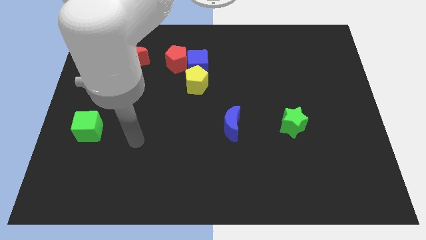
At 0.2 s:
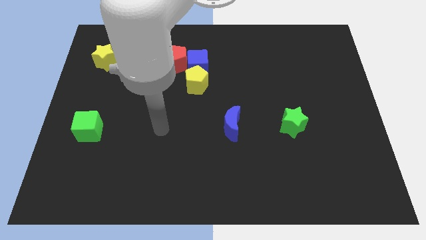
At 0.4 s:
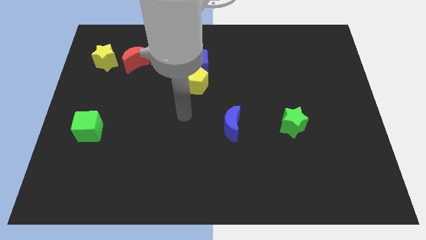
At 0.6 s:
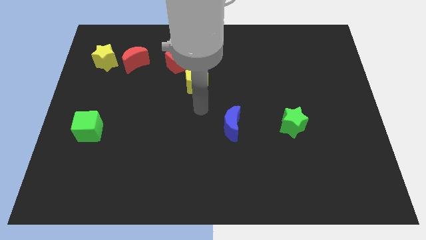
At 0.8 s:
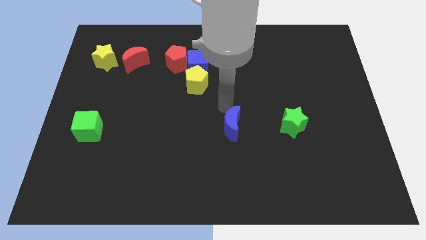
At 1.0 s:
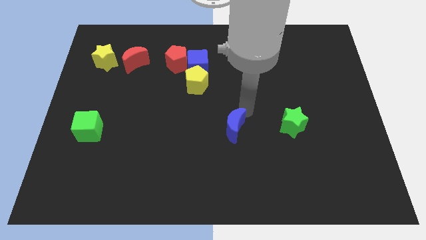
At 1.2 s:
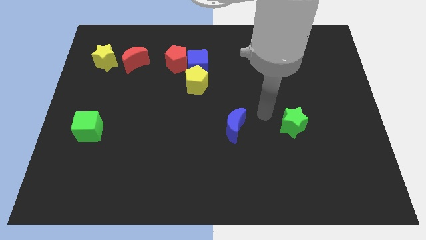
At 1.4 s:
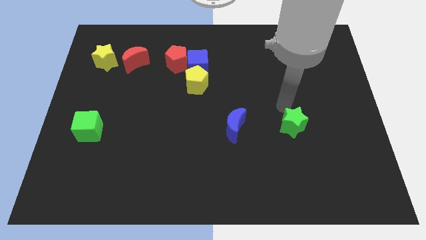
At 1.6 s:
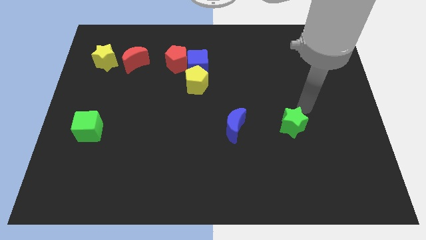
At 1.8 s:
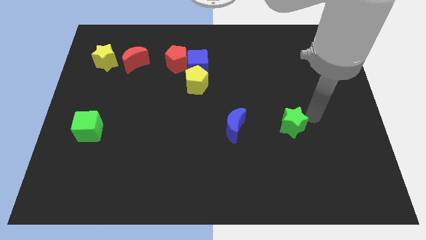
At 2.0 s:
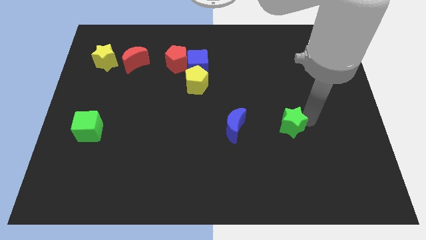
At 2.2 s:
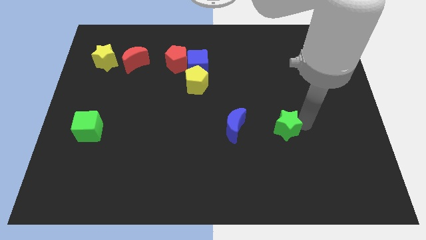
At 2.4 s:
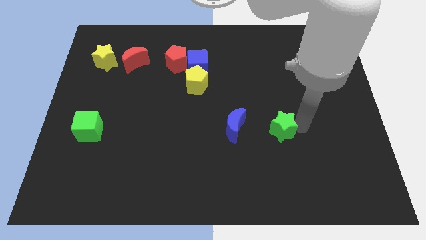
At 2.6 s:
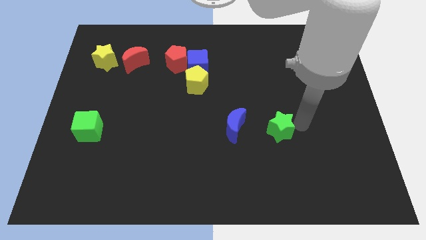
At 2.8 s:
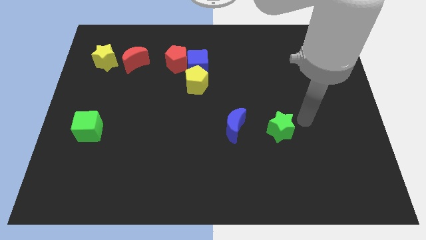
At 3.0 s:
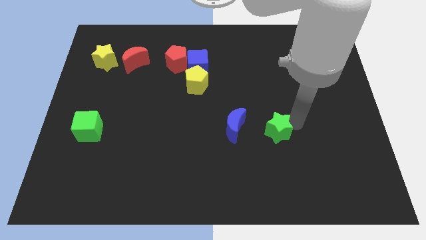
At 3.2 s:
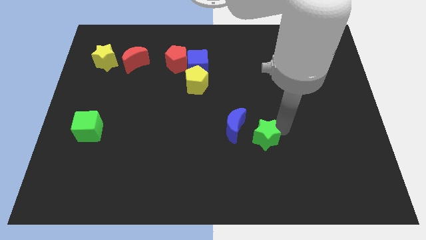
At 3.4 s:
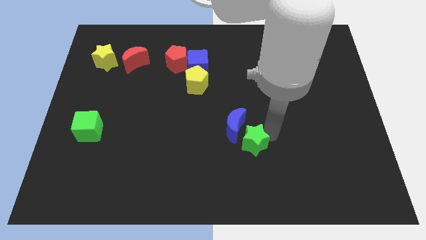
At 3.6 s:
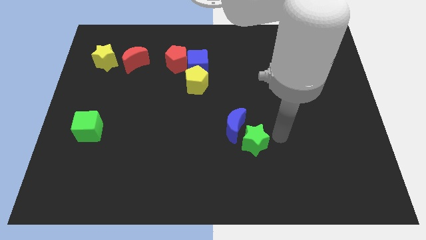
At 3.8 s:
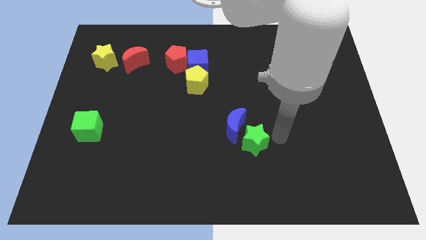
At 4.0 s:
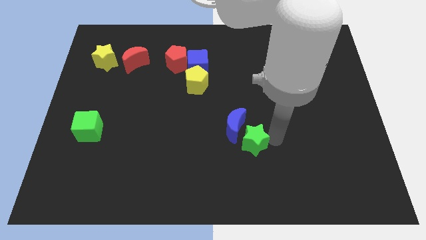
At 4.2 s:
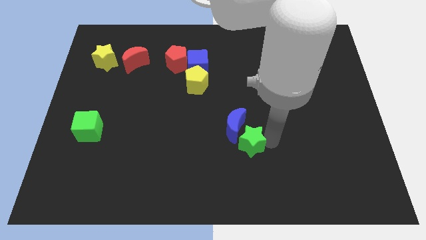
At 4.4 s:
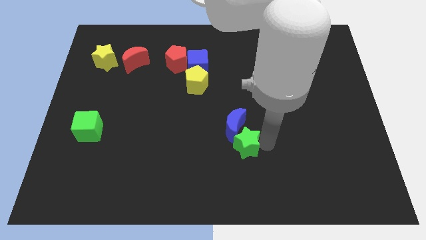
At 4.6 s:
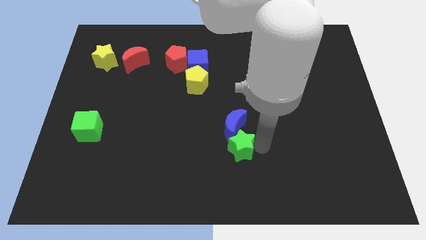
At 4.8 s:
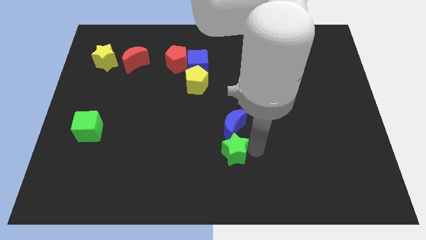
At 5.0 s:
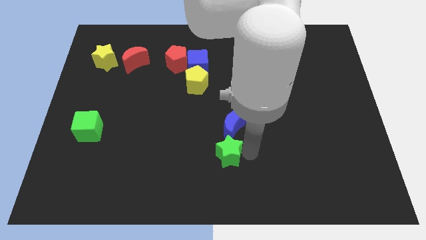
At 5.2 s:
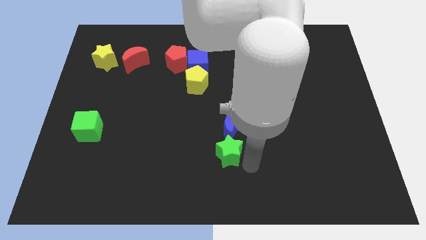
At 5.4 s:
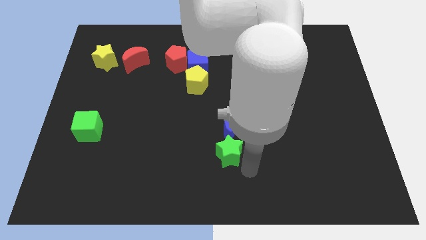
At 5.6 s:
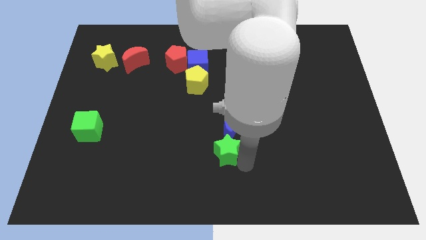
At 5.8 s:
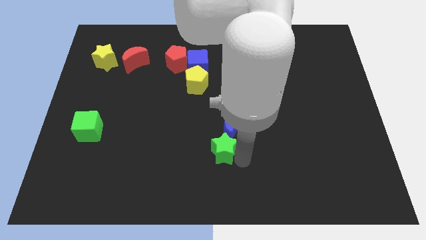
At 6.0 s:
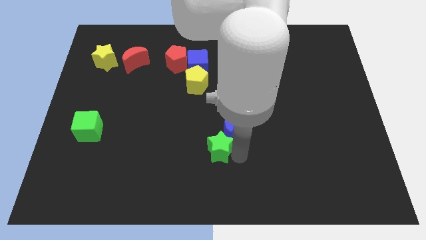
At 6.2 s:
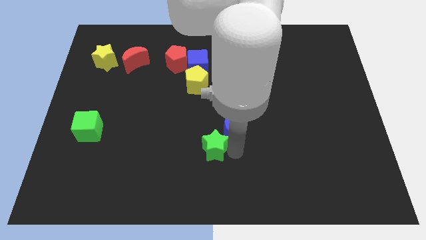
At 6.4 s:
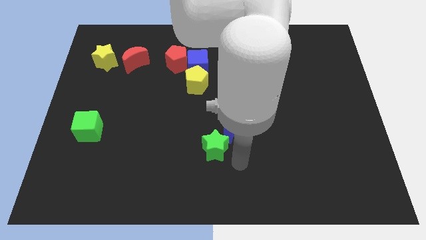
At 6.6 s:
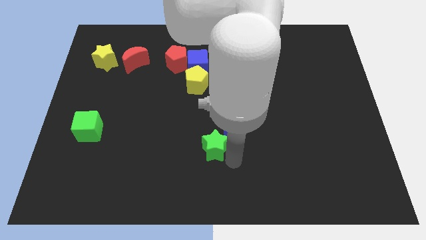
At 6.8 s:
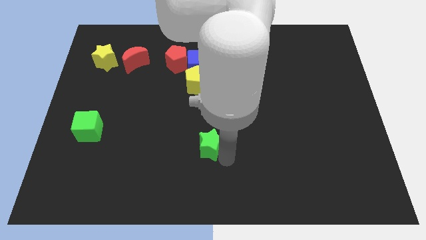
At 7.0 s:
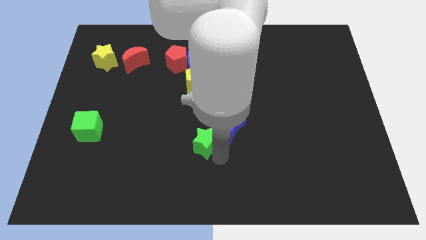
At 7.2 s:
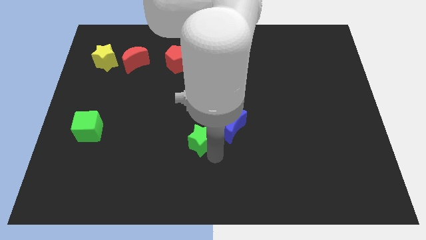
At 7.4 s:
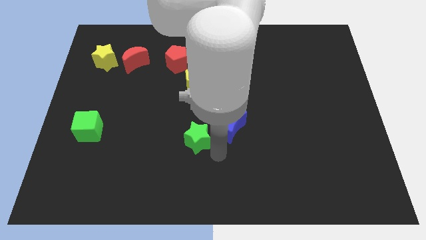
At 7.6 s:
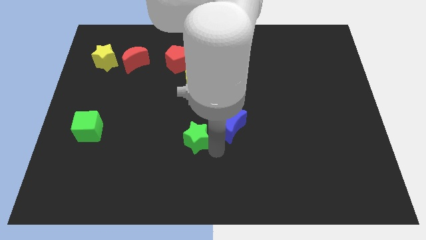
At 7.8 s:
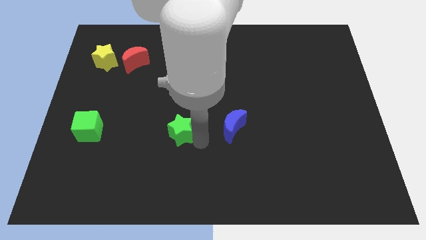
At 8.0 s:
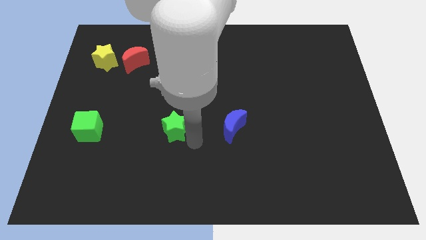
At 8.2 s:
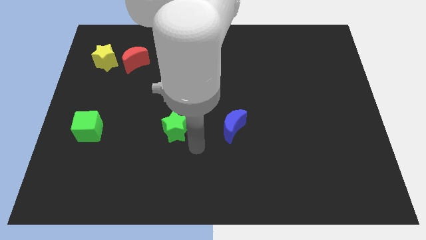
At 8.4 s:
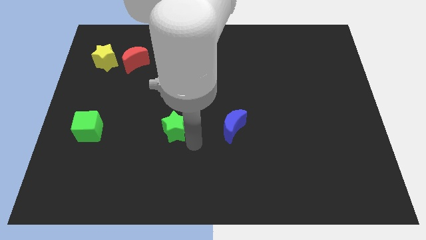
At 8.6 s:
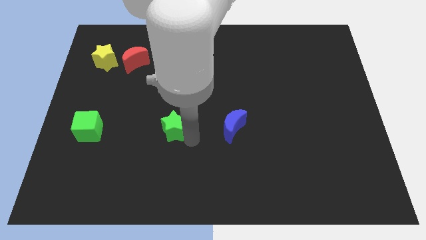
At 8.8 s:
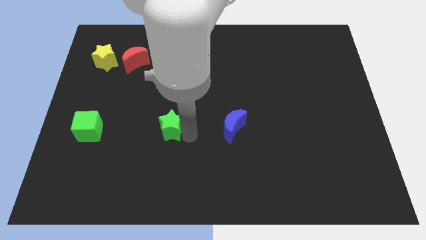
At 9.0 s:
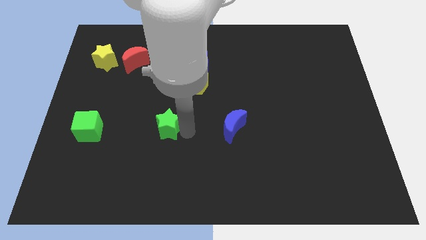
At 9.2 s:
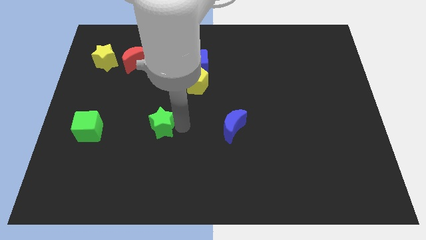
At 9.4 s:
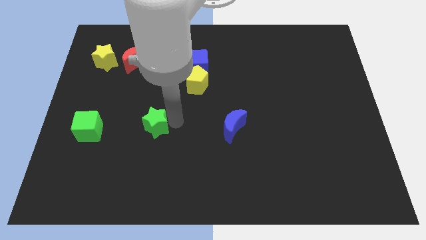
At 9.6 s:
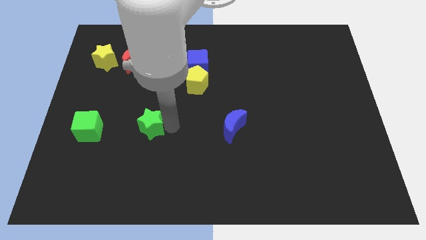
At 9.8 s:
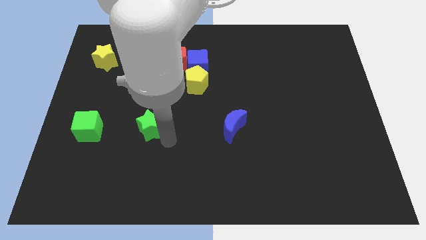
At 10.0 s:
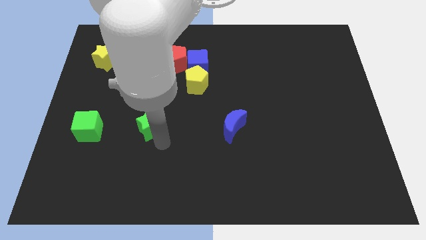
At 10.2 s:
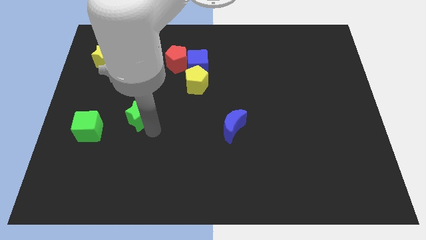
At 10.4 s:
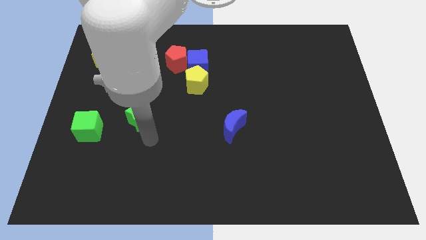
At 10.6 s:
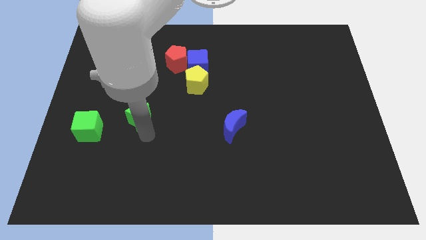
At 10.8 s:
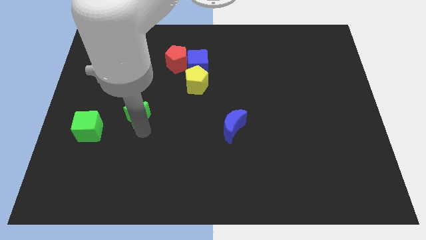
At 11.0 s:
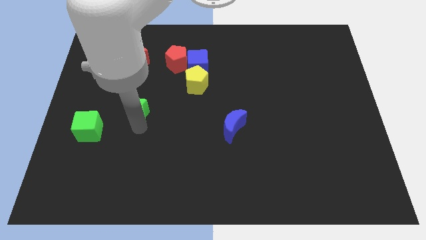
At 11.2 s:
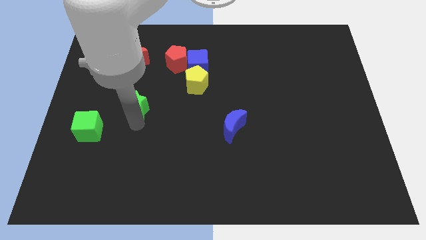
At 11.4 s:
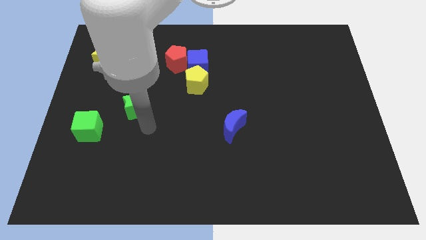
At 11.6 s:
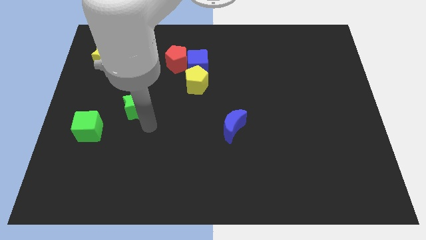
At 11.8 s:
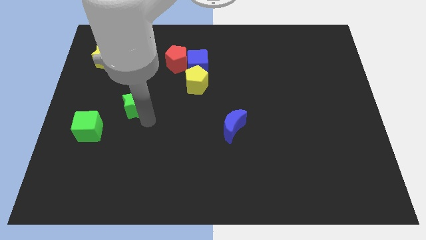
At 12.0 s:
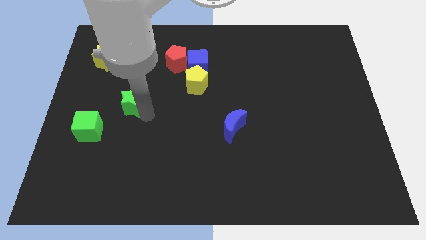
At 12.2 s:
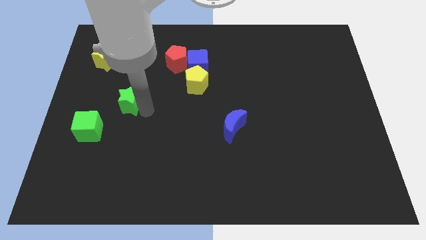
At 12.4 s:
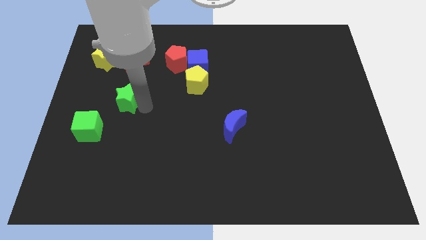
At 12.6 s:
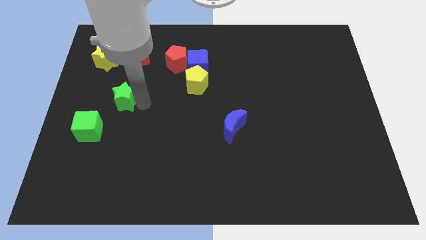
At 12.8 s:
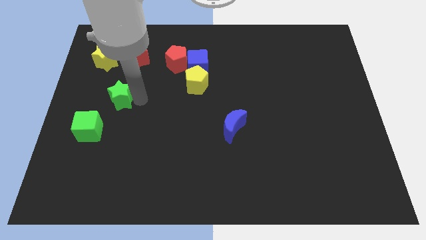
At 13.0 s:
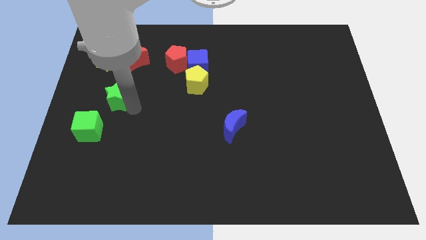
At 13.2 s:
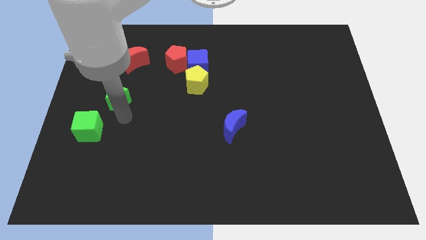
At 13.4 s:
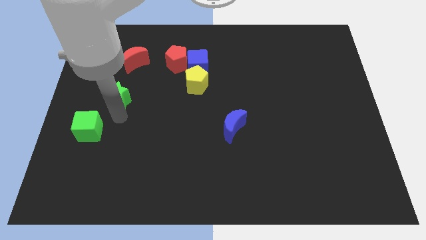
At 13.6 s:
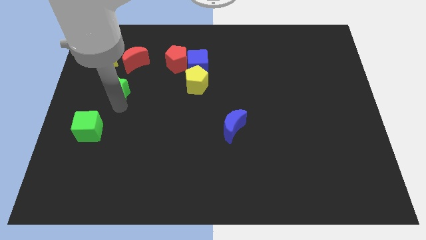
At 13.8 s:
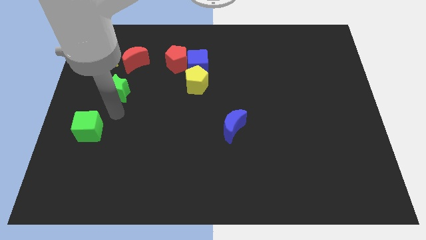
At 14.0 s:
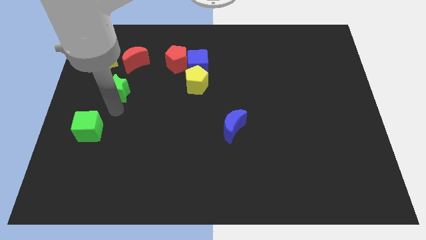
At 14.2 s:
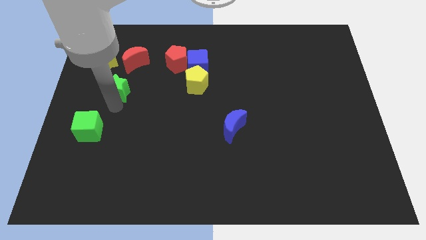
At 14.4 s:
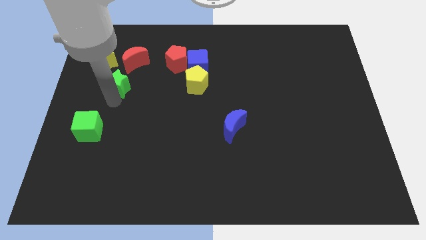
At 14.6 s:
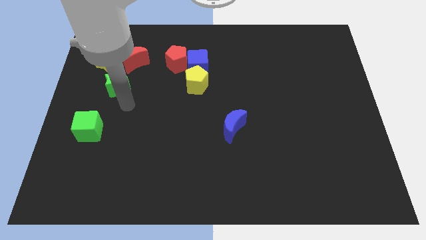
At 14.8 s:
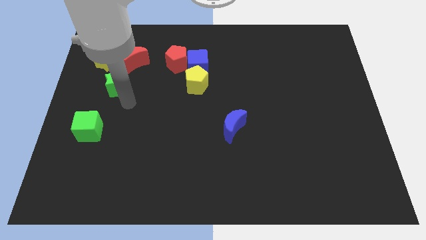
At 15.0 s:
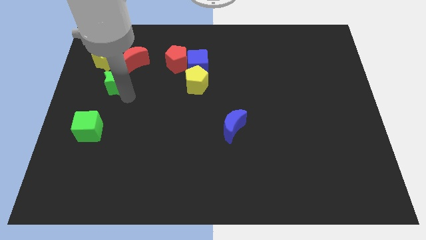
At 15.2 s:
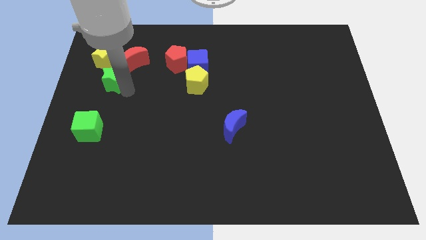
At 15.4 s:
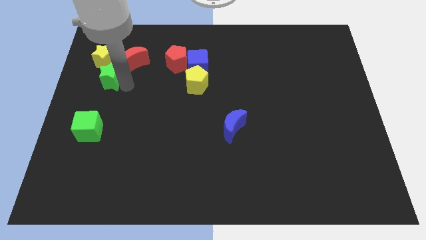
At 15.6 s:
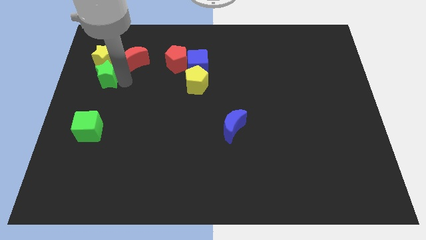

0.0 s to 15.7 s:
slide the green star towards the yellow star
